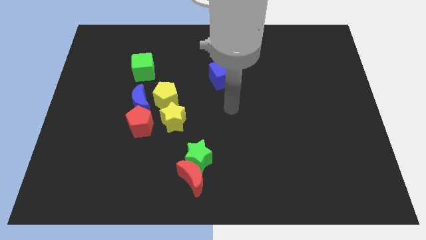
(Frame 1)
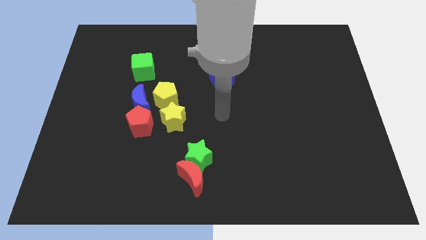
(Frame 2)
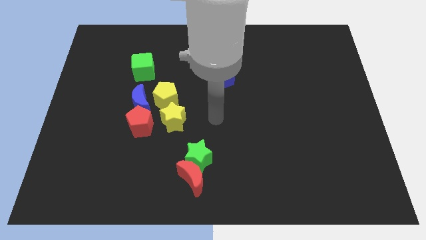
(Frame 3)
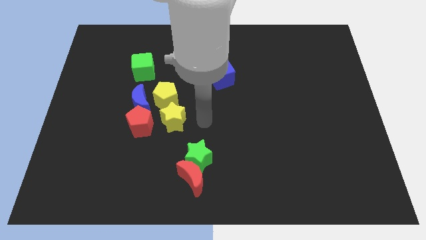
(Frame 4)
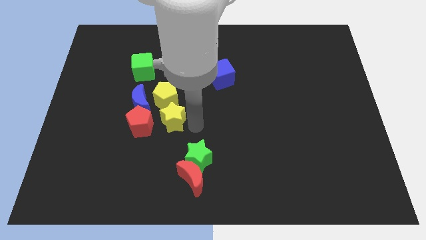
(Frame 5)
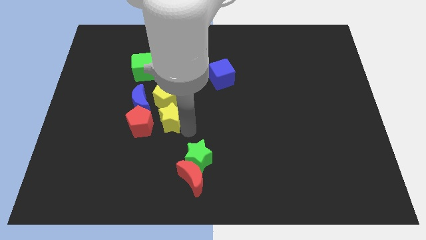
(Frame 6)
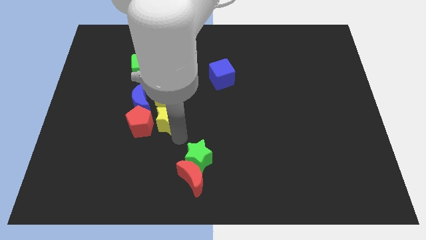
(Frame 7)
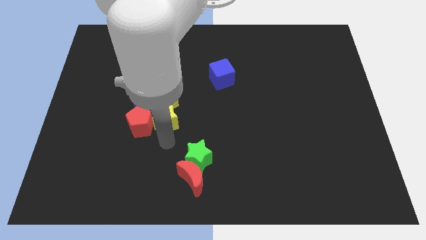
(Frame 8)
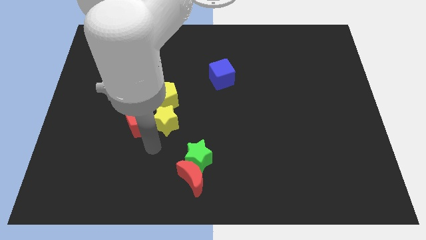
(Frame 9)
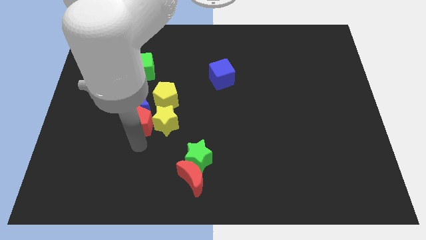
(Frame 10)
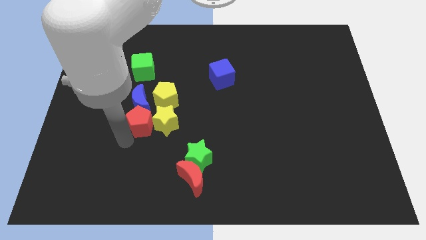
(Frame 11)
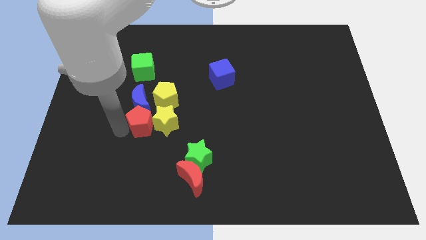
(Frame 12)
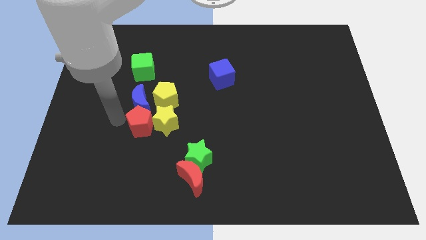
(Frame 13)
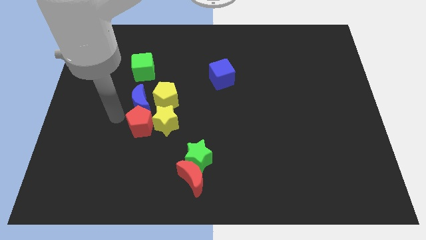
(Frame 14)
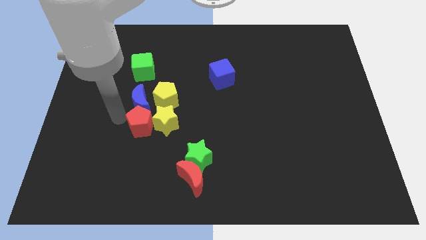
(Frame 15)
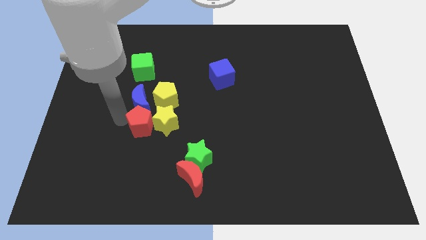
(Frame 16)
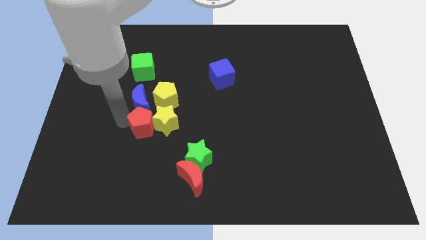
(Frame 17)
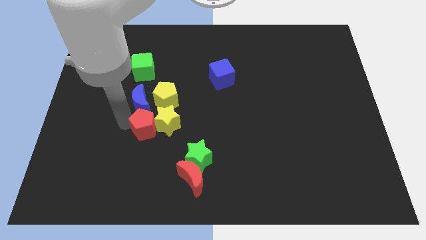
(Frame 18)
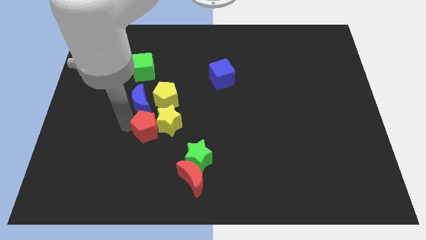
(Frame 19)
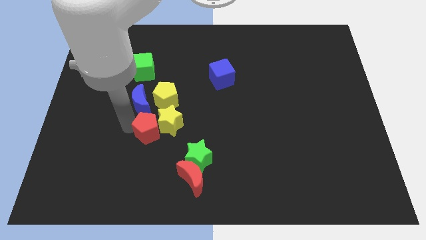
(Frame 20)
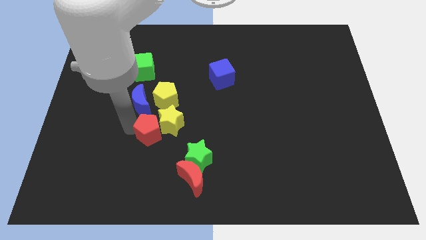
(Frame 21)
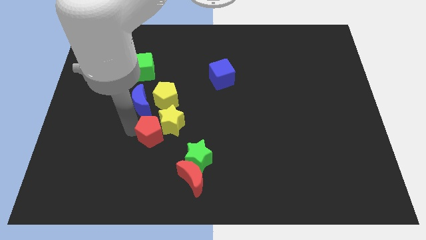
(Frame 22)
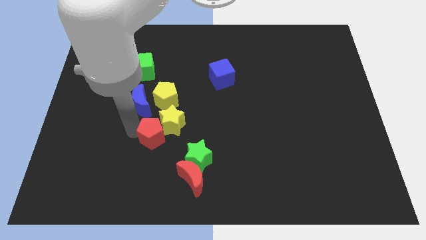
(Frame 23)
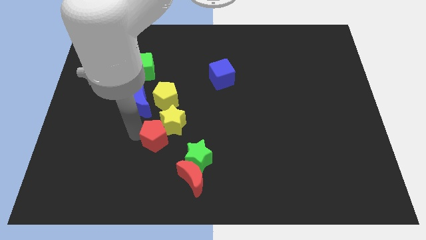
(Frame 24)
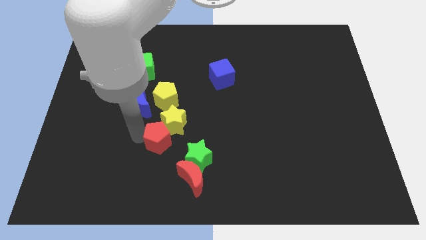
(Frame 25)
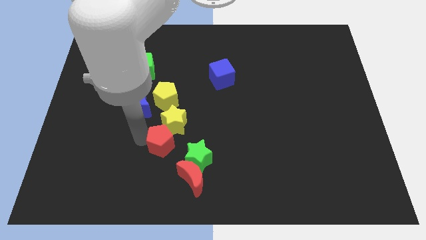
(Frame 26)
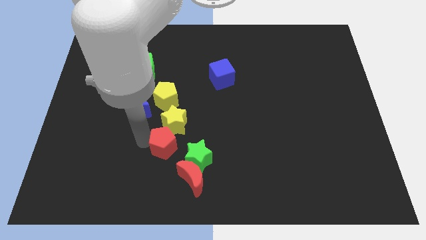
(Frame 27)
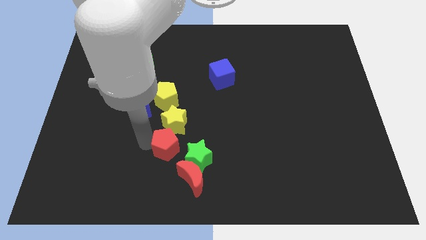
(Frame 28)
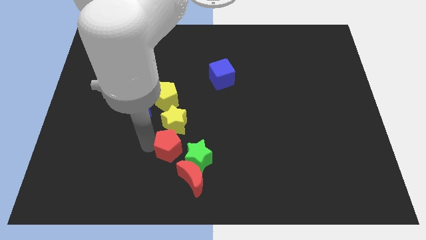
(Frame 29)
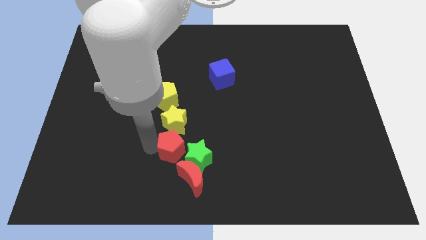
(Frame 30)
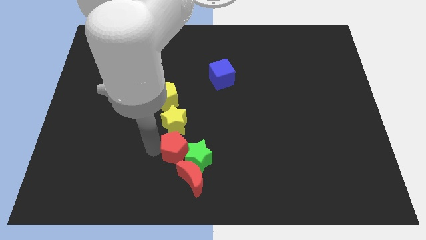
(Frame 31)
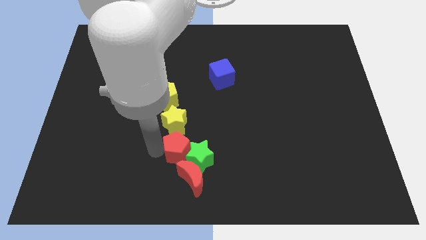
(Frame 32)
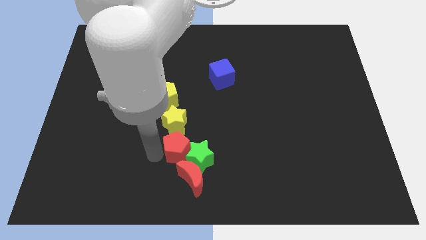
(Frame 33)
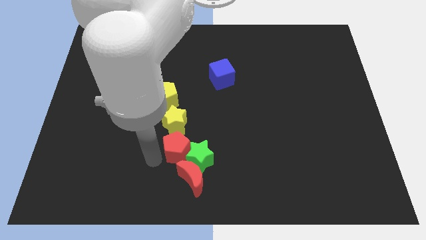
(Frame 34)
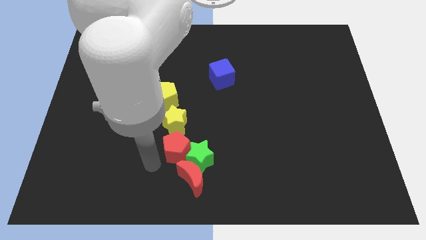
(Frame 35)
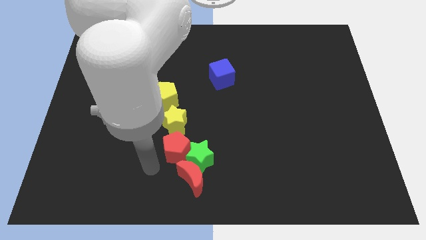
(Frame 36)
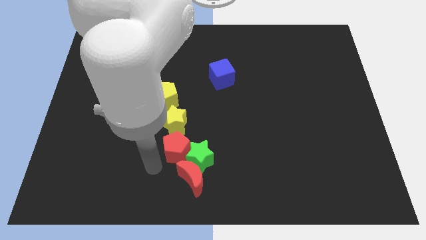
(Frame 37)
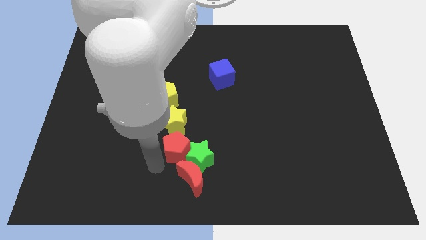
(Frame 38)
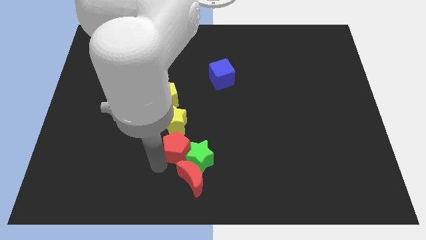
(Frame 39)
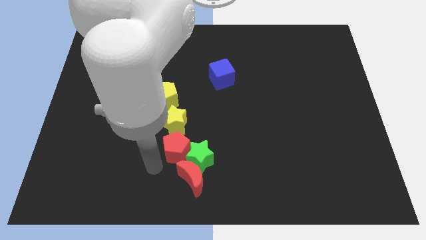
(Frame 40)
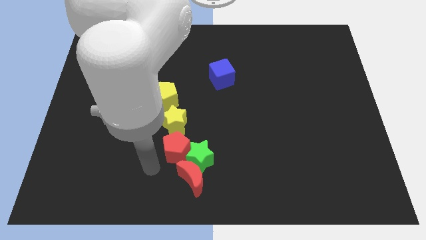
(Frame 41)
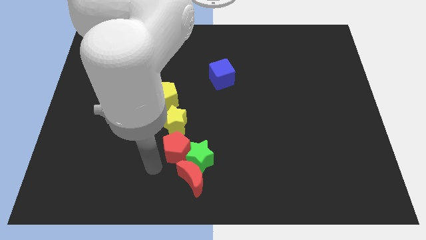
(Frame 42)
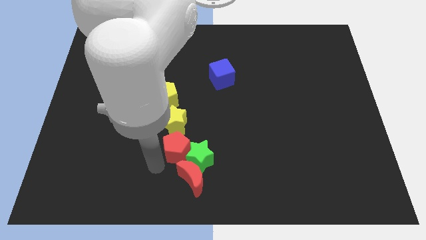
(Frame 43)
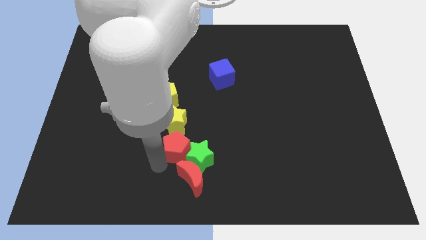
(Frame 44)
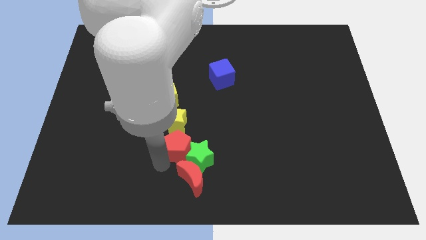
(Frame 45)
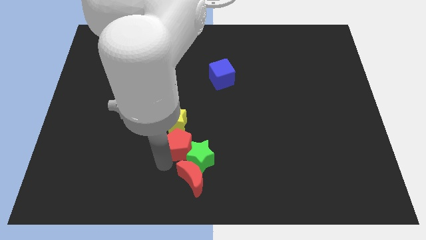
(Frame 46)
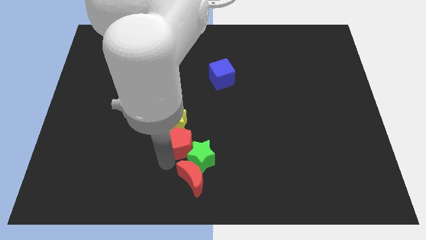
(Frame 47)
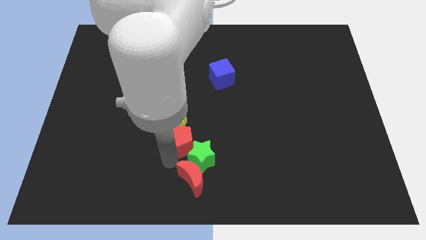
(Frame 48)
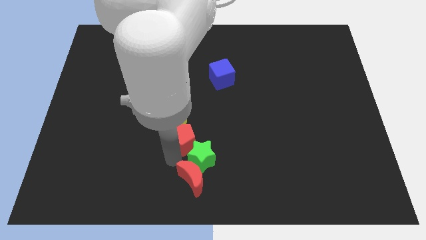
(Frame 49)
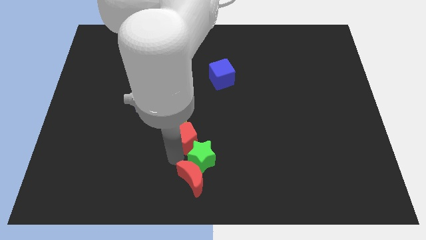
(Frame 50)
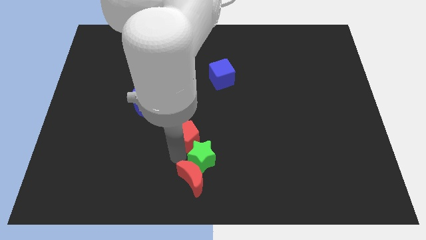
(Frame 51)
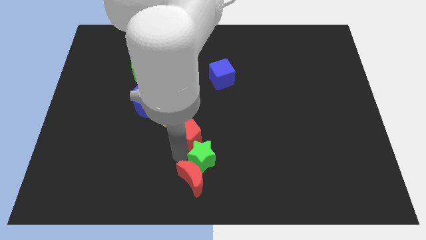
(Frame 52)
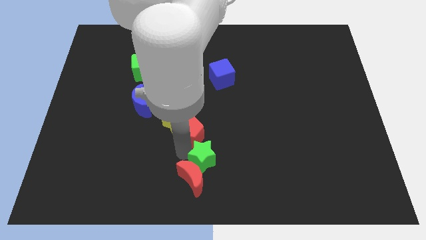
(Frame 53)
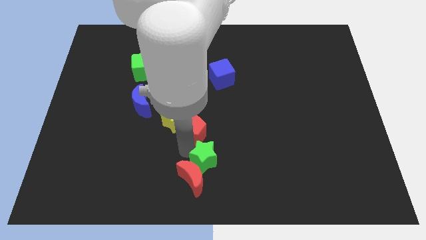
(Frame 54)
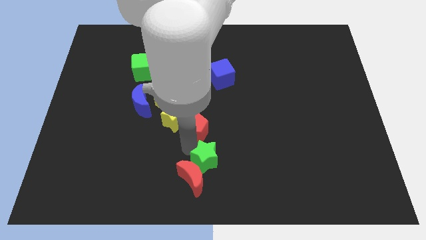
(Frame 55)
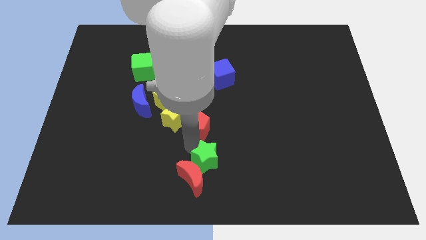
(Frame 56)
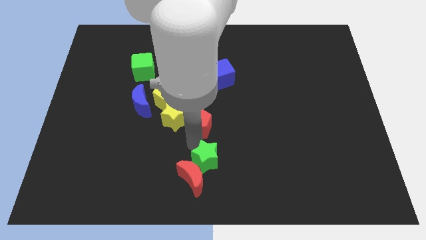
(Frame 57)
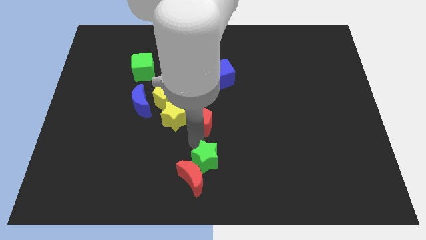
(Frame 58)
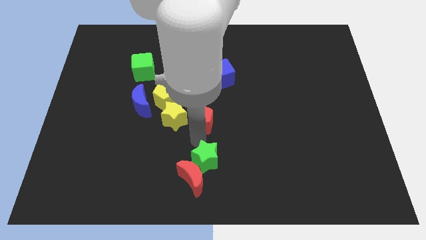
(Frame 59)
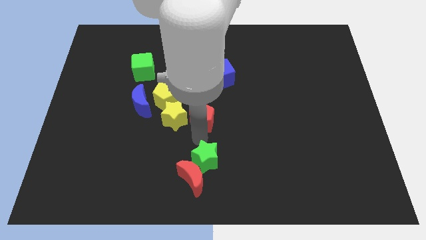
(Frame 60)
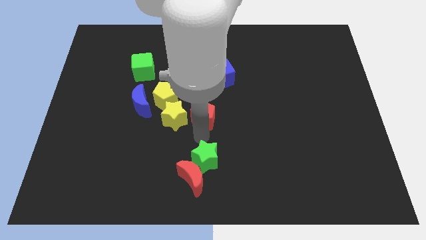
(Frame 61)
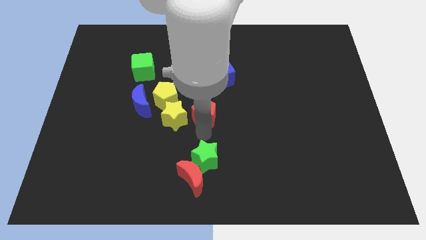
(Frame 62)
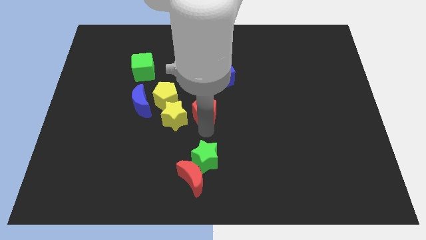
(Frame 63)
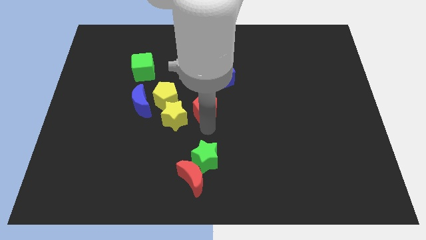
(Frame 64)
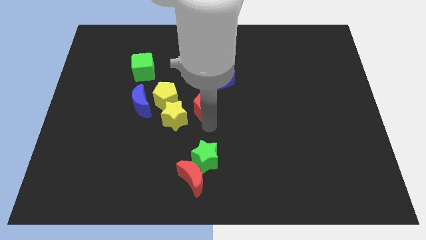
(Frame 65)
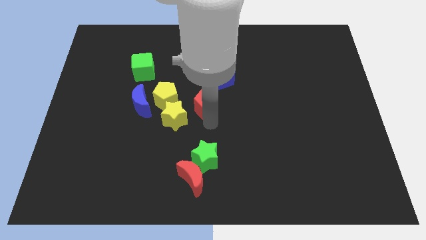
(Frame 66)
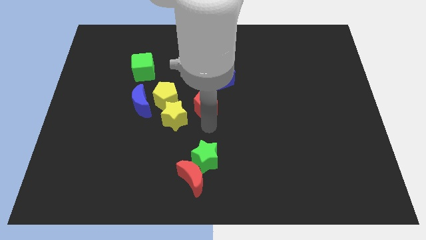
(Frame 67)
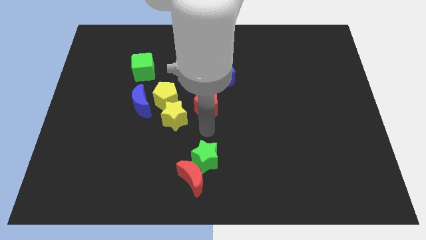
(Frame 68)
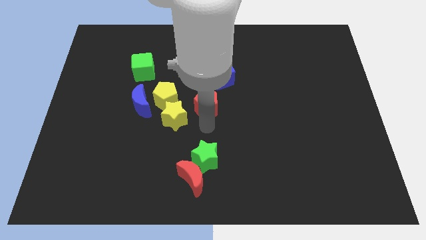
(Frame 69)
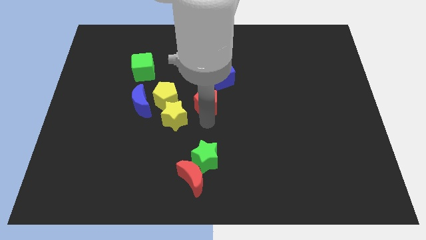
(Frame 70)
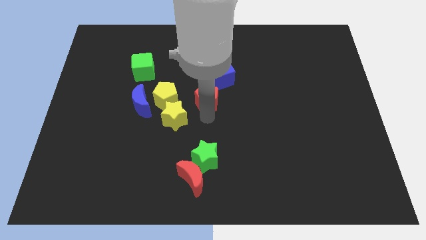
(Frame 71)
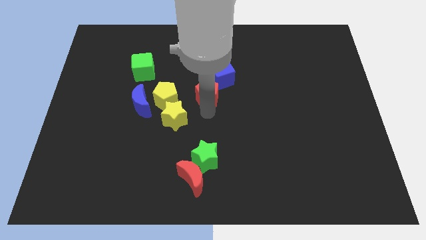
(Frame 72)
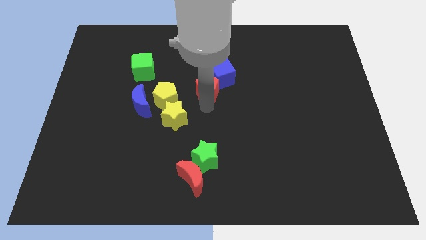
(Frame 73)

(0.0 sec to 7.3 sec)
slide the red pentagon to the blue cube

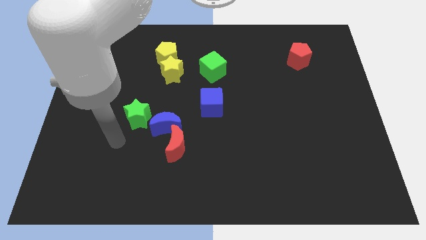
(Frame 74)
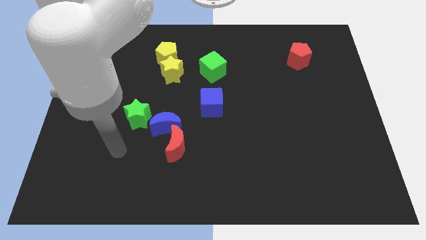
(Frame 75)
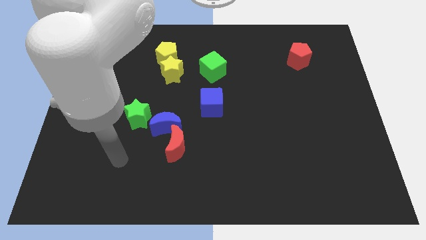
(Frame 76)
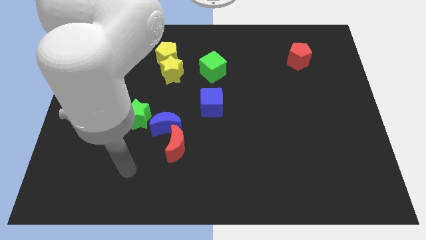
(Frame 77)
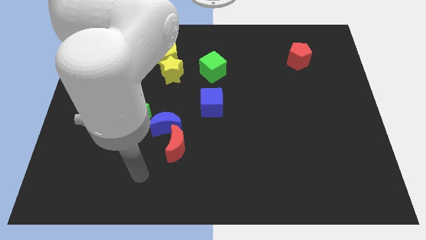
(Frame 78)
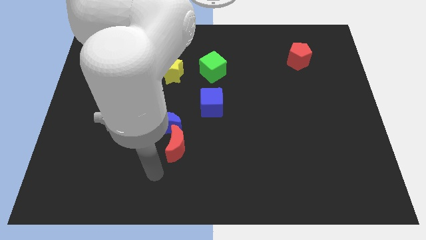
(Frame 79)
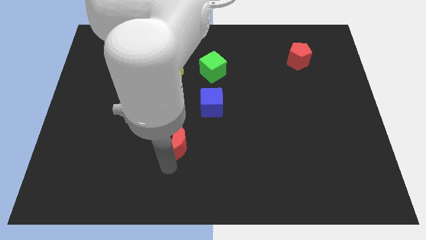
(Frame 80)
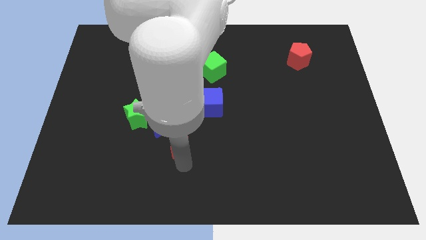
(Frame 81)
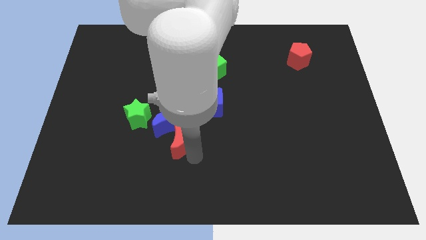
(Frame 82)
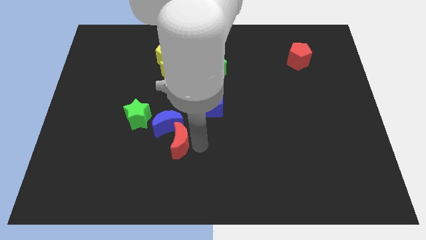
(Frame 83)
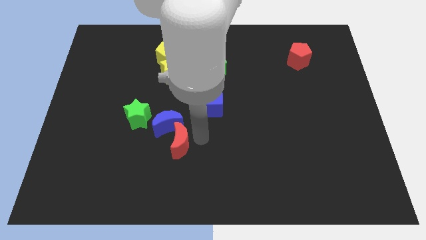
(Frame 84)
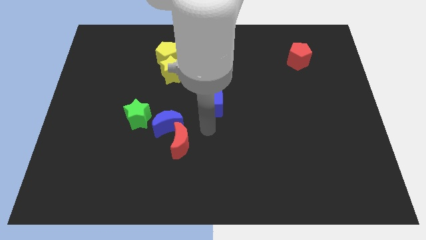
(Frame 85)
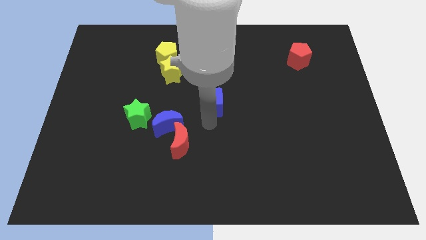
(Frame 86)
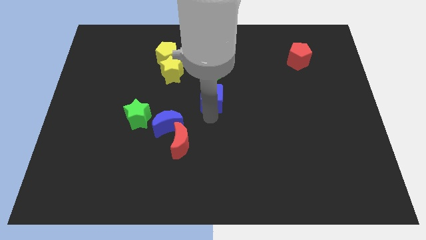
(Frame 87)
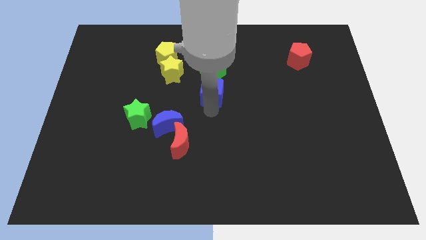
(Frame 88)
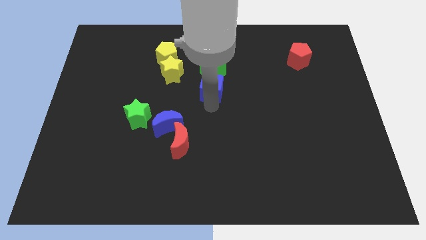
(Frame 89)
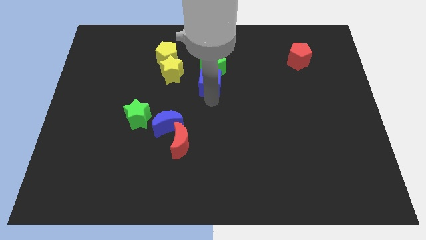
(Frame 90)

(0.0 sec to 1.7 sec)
put the blue cube to the green cube
